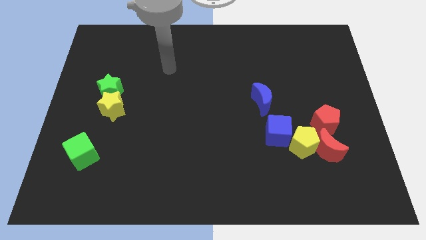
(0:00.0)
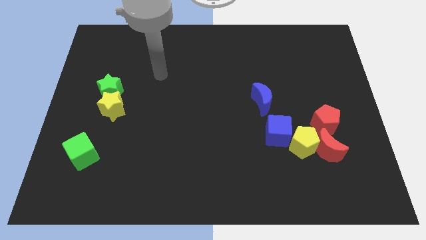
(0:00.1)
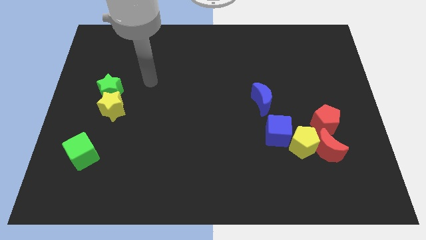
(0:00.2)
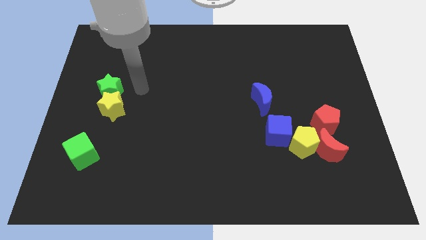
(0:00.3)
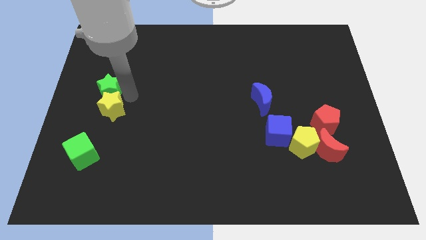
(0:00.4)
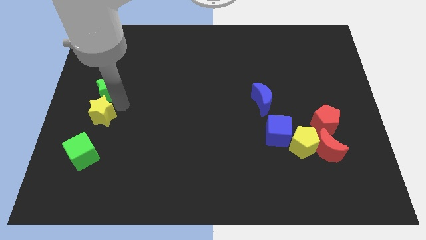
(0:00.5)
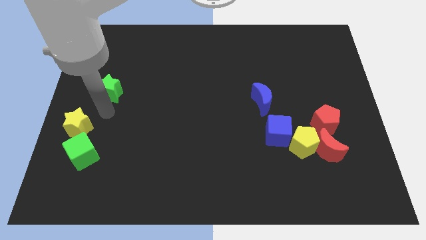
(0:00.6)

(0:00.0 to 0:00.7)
pull the green star apart from the yellow star

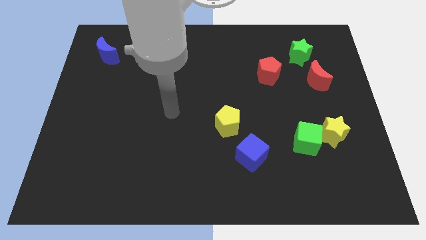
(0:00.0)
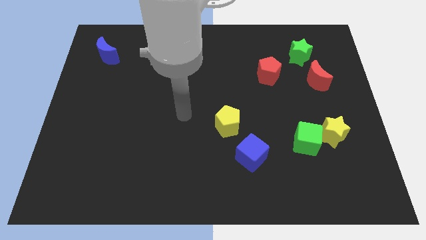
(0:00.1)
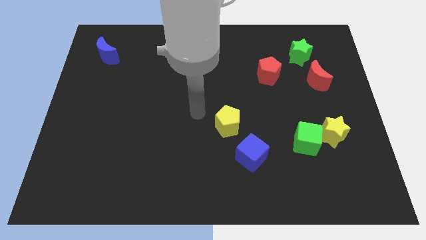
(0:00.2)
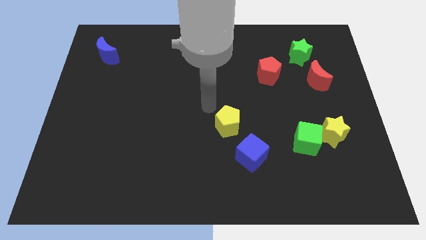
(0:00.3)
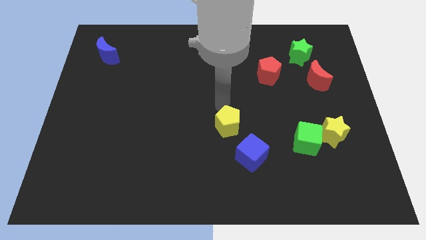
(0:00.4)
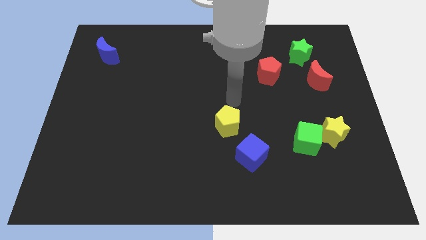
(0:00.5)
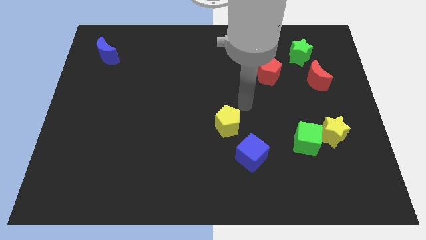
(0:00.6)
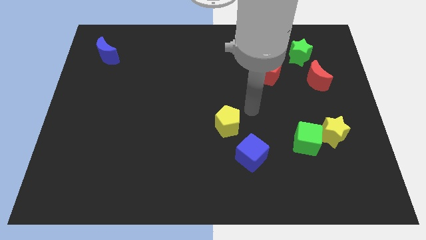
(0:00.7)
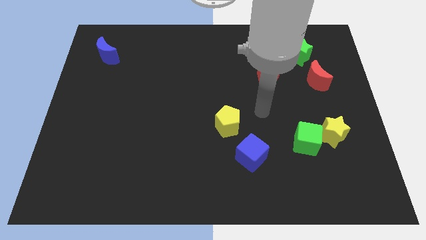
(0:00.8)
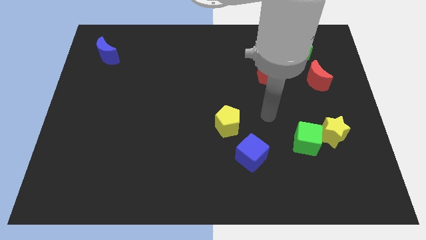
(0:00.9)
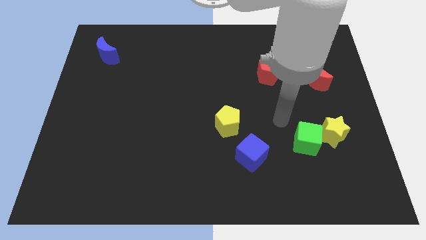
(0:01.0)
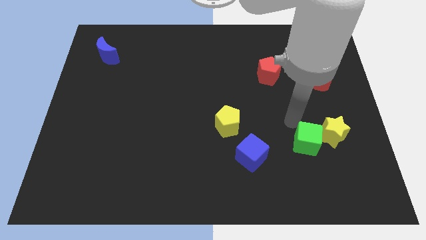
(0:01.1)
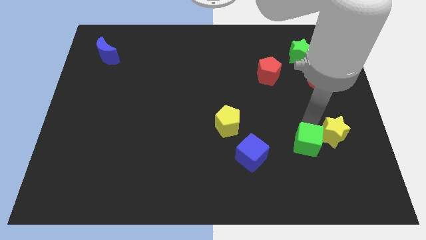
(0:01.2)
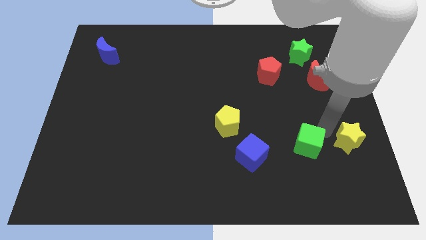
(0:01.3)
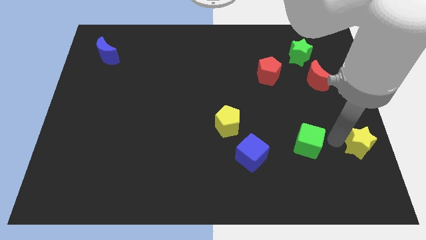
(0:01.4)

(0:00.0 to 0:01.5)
pull the green cube apart from the yellow star

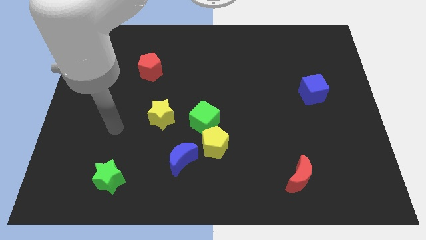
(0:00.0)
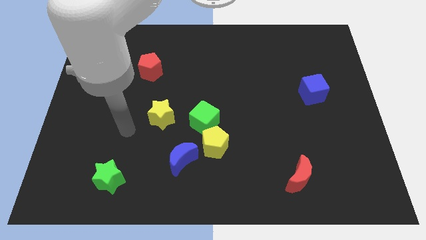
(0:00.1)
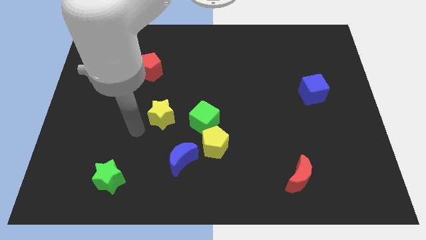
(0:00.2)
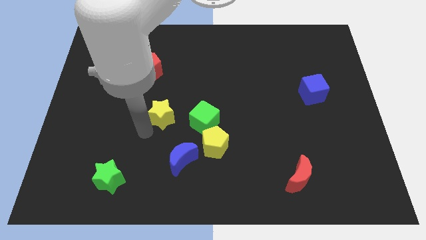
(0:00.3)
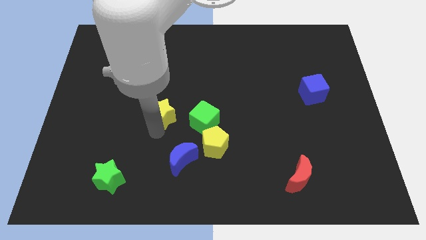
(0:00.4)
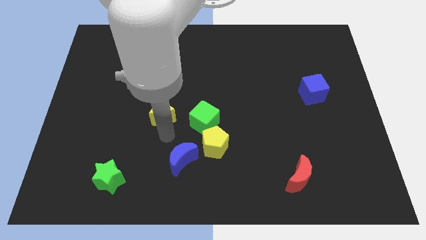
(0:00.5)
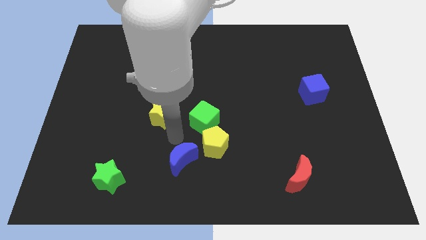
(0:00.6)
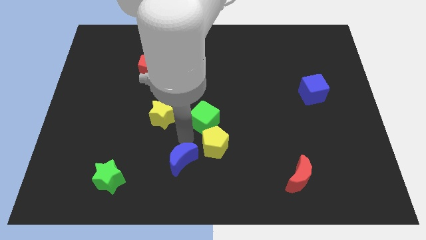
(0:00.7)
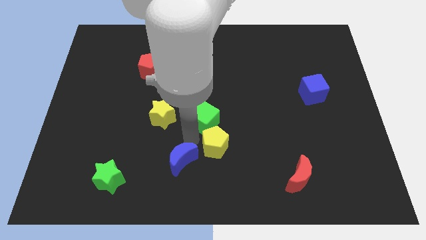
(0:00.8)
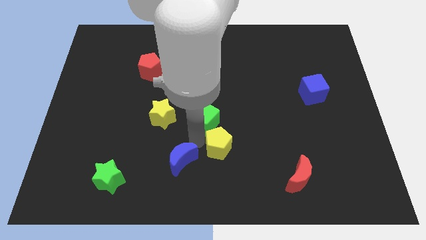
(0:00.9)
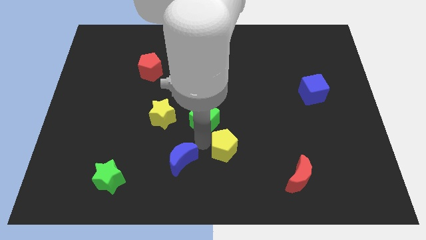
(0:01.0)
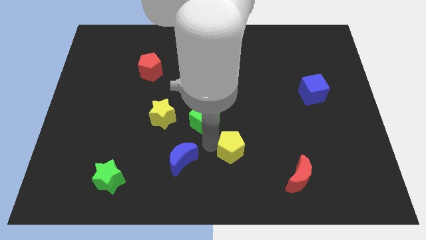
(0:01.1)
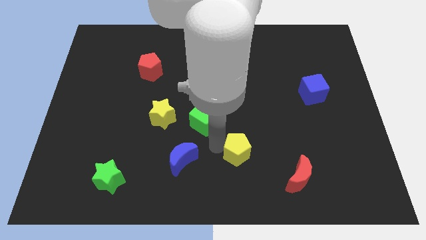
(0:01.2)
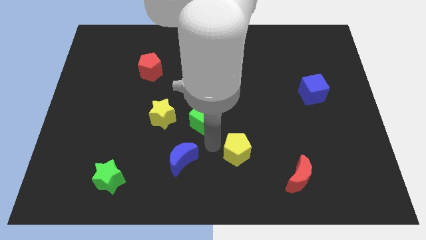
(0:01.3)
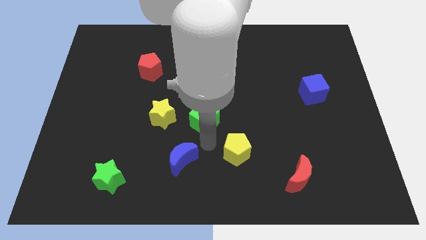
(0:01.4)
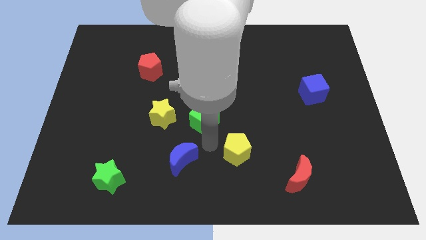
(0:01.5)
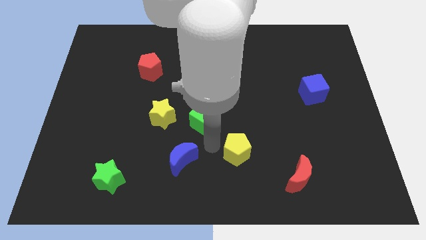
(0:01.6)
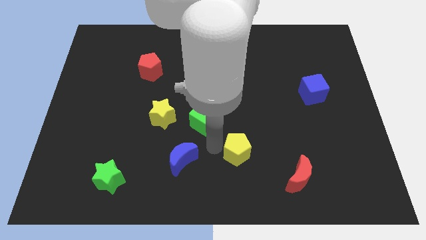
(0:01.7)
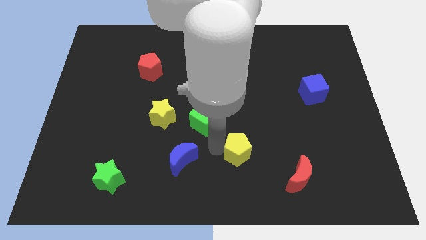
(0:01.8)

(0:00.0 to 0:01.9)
separate the yellow pentagon from the green cube and blue moon

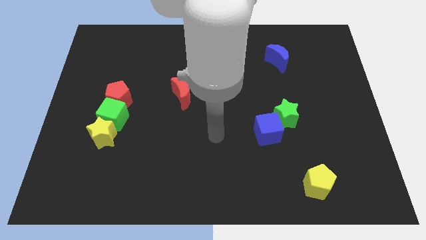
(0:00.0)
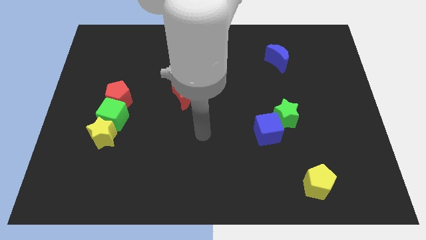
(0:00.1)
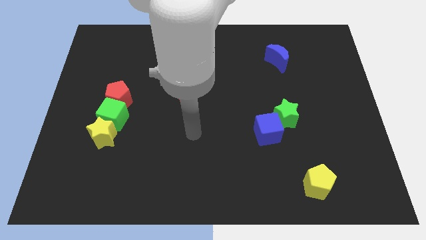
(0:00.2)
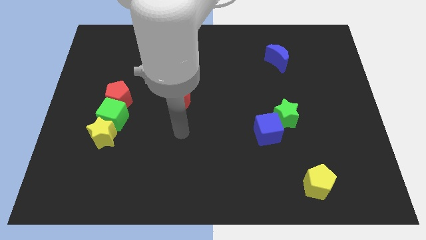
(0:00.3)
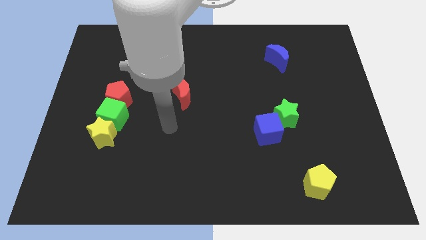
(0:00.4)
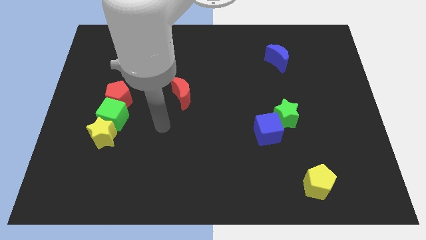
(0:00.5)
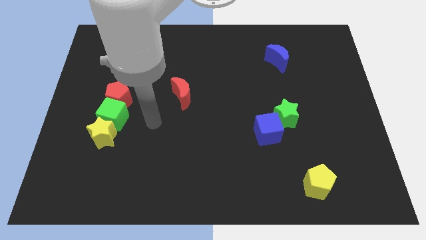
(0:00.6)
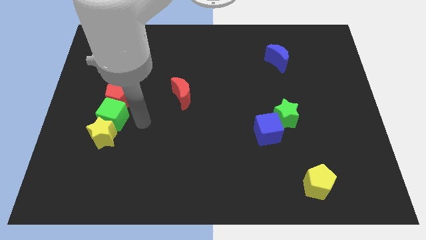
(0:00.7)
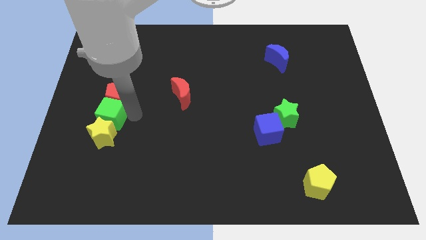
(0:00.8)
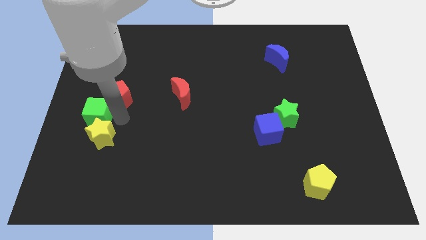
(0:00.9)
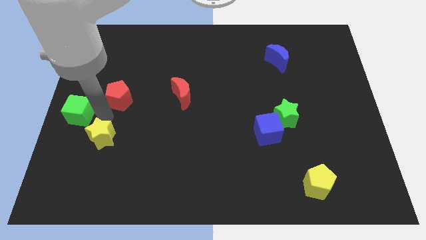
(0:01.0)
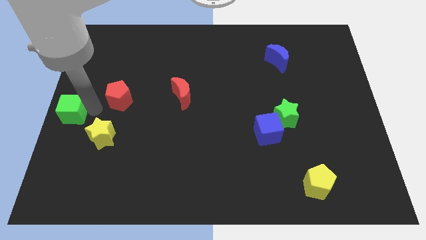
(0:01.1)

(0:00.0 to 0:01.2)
pull the red pentagon apart from the green cube

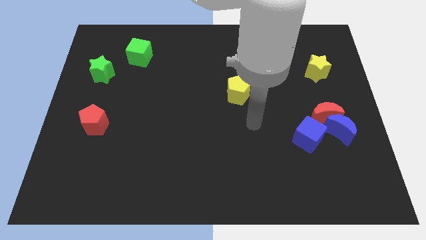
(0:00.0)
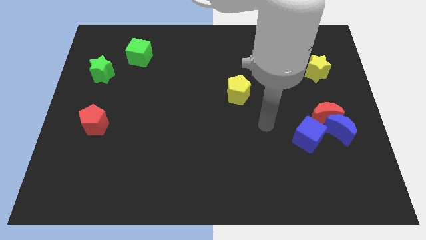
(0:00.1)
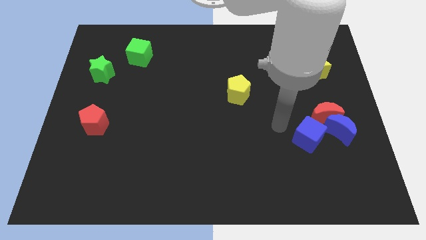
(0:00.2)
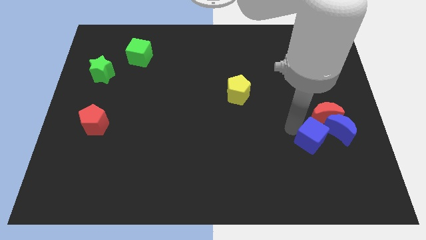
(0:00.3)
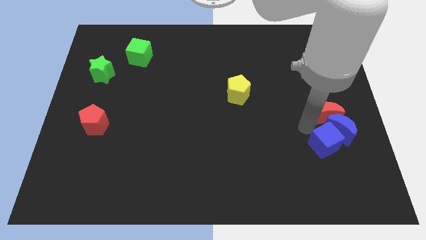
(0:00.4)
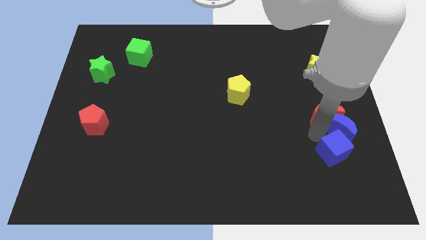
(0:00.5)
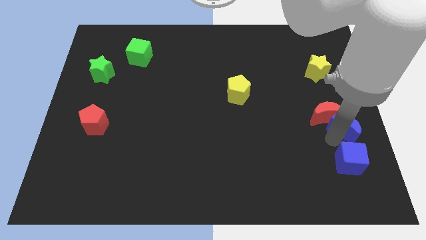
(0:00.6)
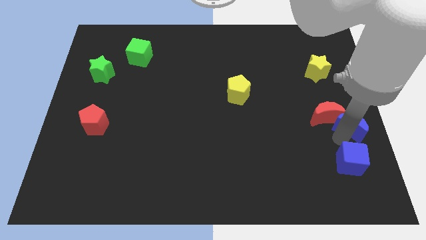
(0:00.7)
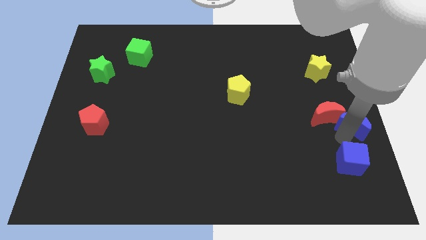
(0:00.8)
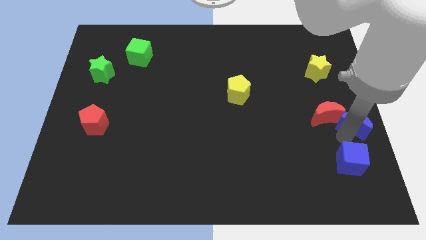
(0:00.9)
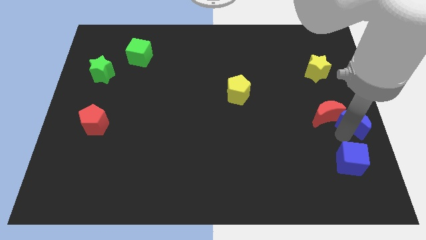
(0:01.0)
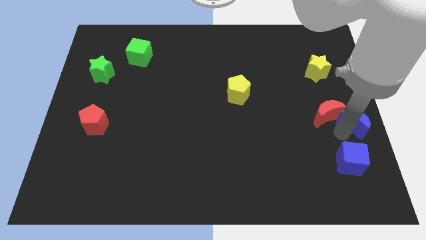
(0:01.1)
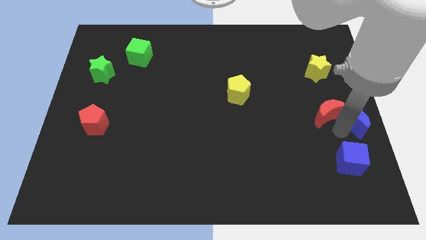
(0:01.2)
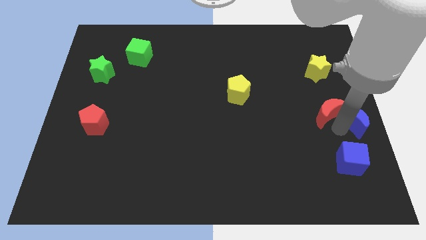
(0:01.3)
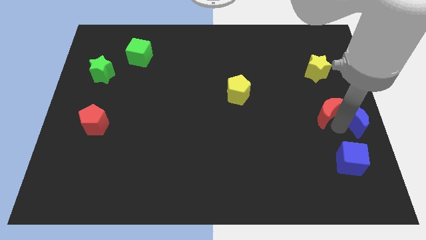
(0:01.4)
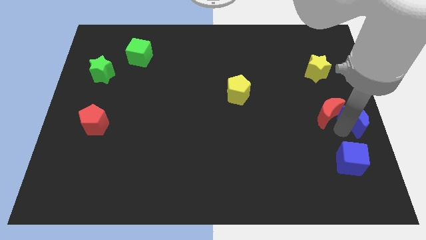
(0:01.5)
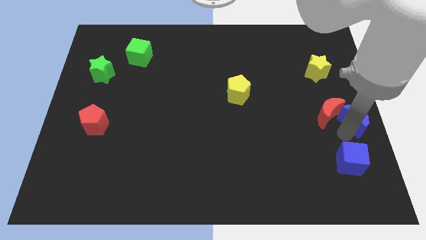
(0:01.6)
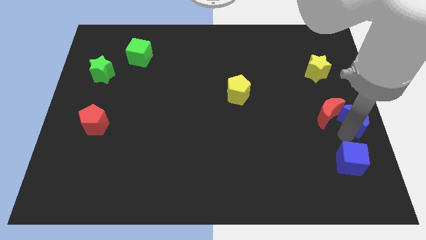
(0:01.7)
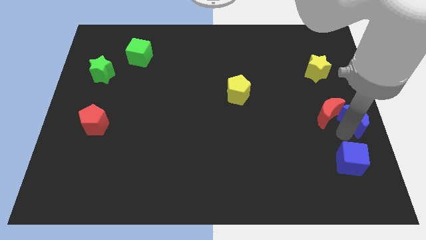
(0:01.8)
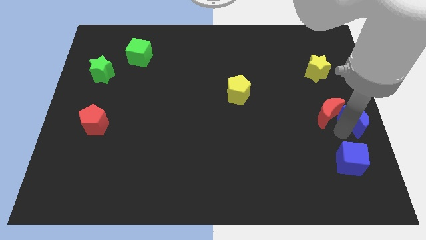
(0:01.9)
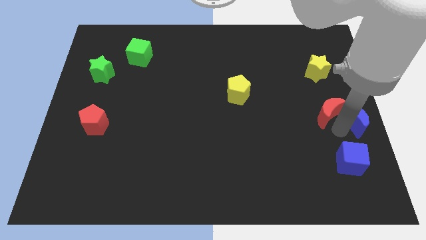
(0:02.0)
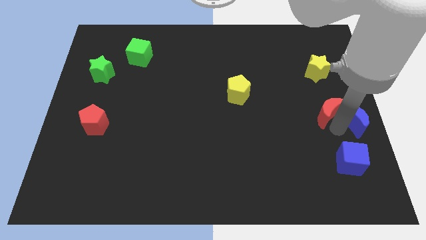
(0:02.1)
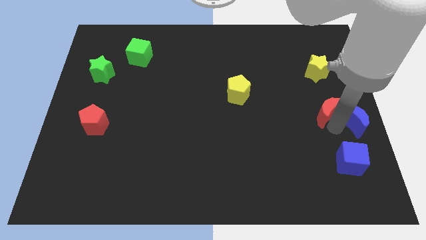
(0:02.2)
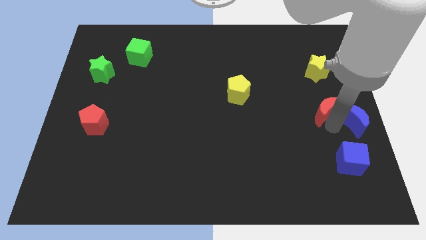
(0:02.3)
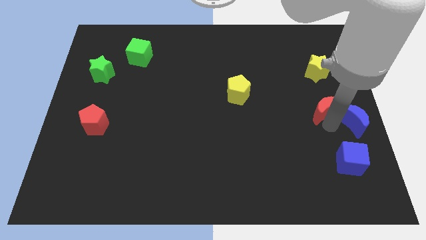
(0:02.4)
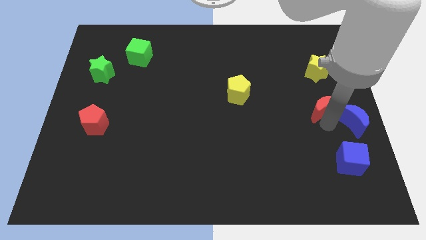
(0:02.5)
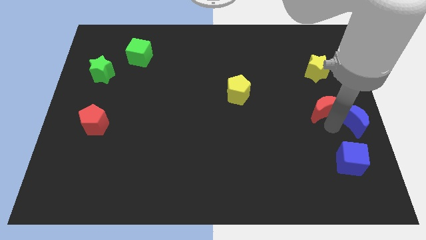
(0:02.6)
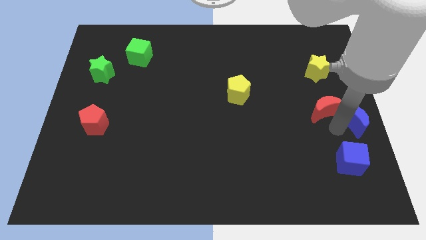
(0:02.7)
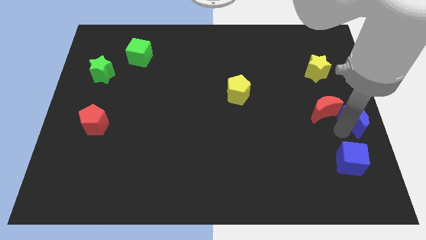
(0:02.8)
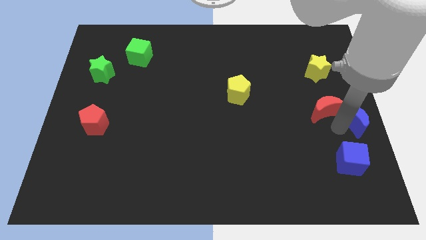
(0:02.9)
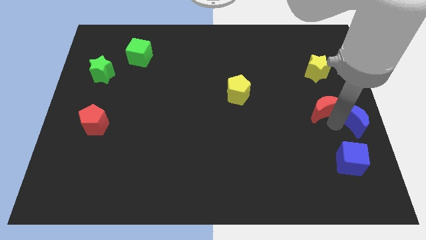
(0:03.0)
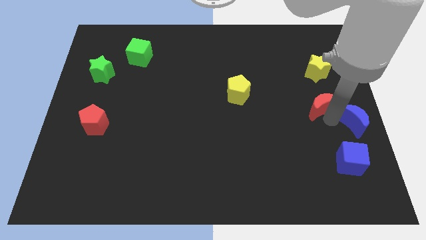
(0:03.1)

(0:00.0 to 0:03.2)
pull the red moon apart from the blue moon and blue cube

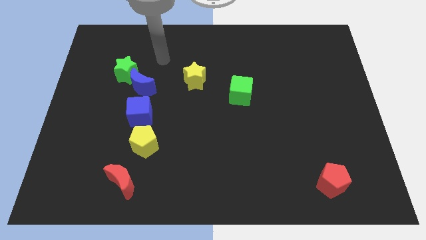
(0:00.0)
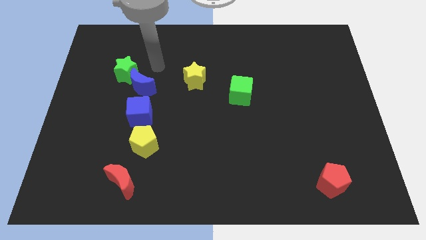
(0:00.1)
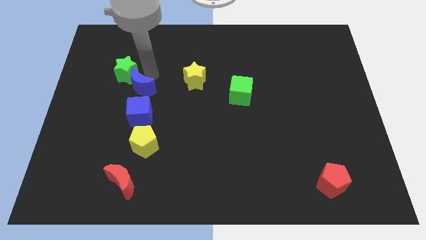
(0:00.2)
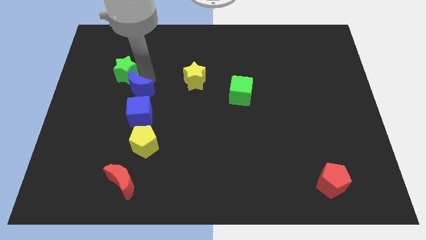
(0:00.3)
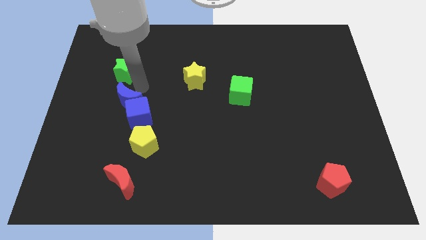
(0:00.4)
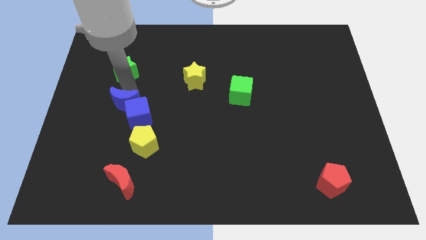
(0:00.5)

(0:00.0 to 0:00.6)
pull the green star apart from the blue moon

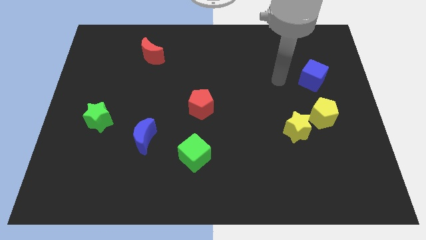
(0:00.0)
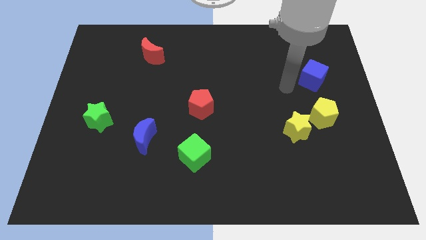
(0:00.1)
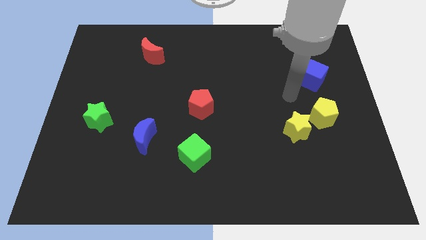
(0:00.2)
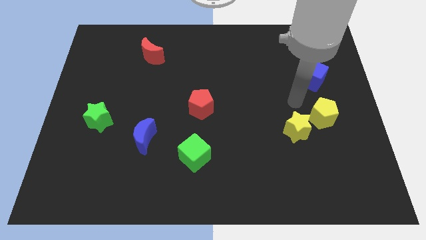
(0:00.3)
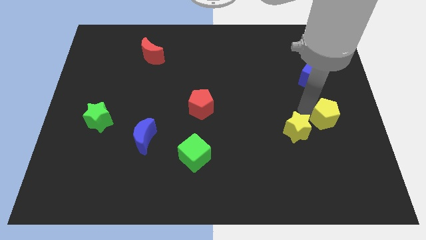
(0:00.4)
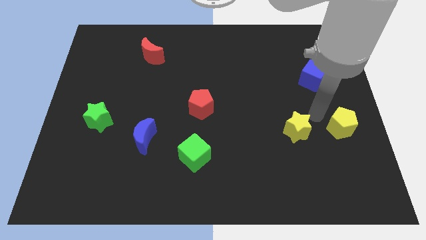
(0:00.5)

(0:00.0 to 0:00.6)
move the yellow star away from the yellow pentagon
